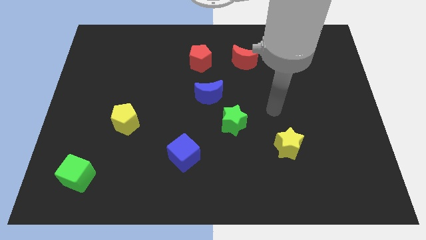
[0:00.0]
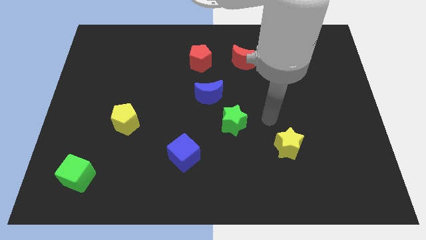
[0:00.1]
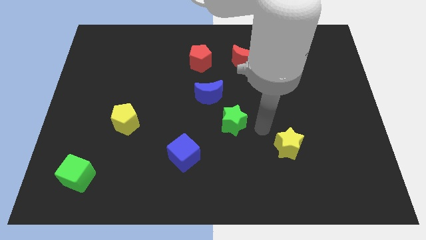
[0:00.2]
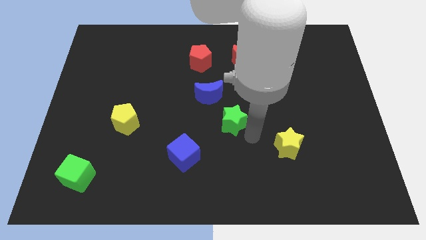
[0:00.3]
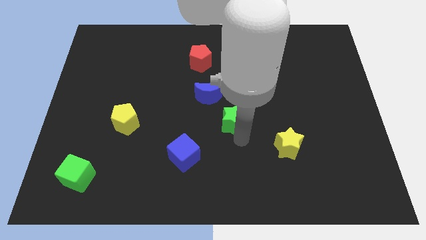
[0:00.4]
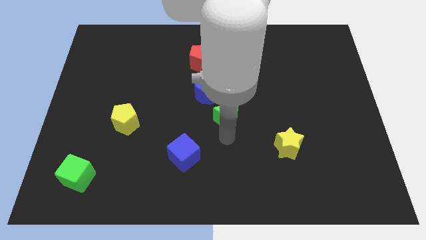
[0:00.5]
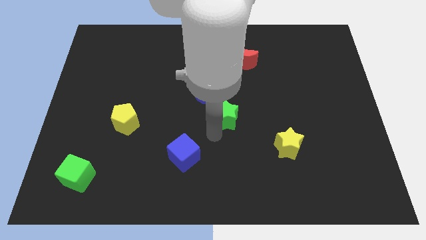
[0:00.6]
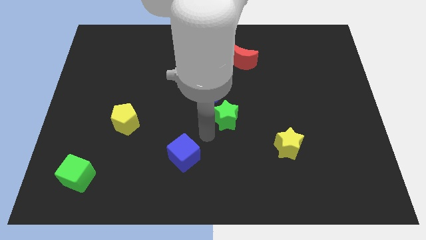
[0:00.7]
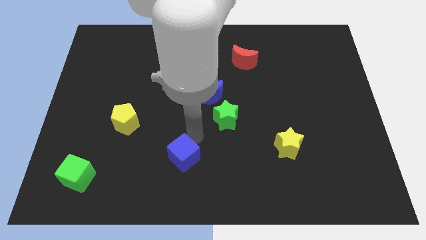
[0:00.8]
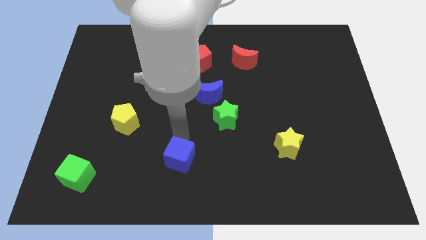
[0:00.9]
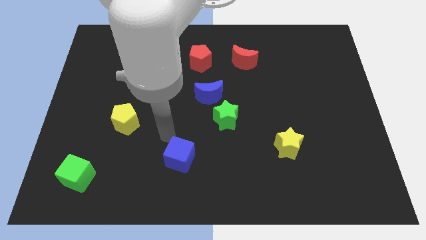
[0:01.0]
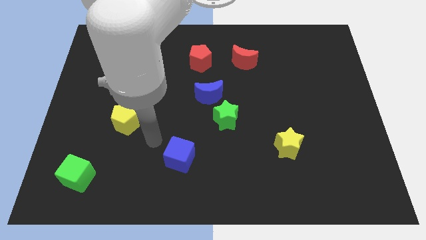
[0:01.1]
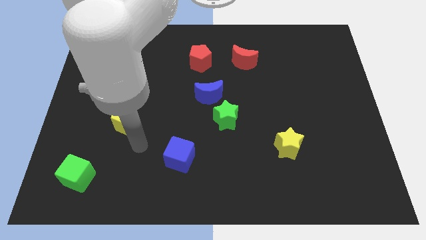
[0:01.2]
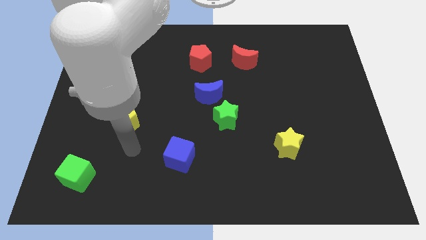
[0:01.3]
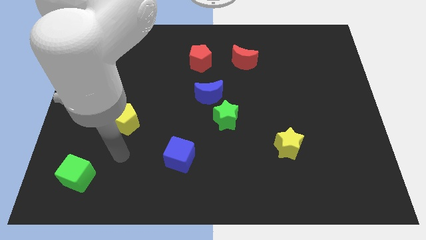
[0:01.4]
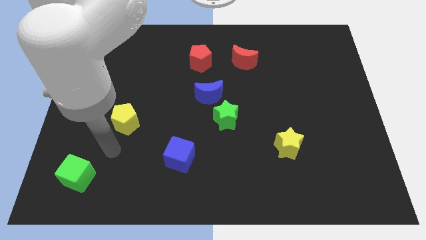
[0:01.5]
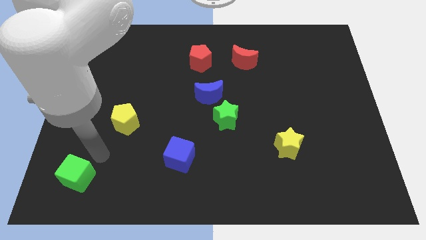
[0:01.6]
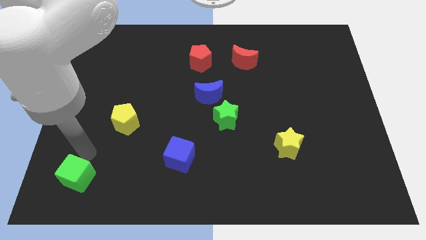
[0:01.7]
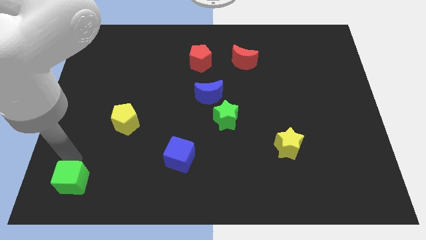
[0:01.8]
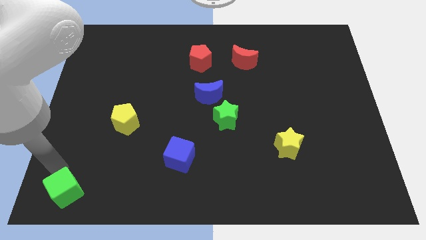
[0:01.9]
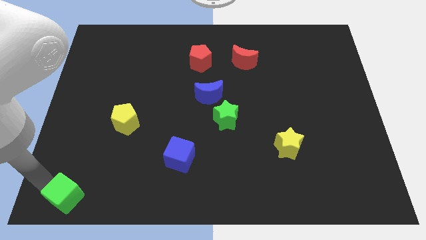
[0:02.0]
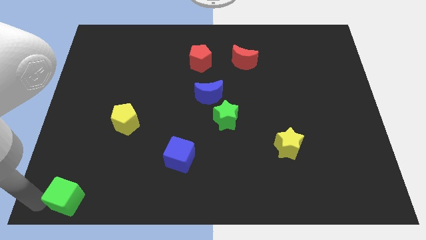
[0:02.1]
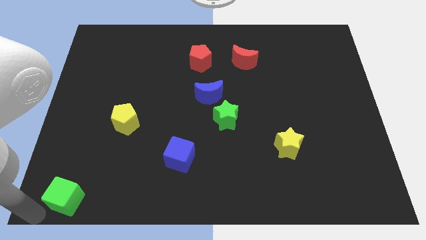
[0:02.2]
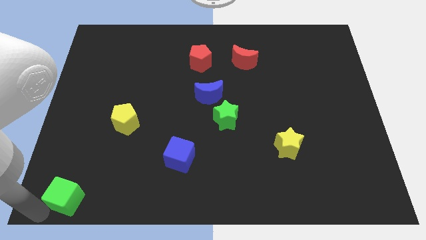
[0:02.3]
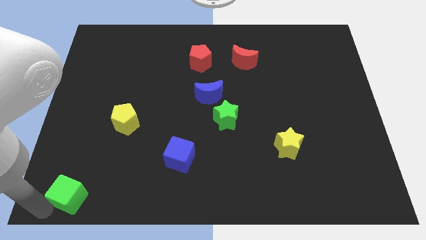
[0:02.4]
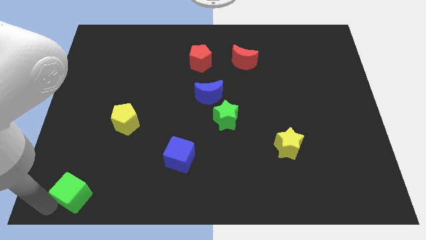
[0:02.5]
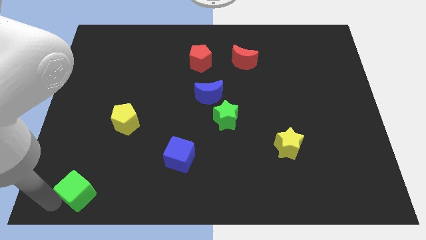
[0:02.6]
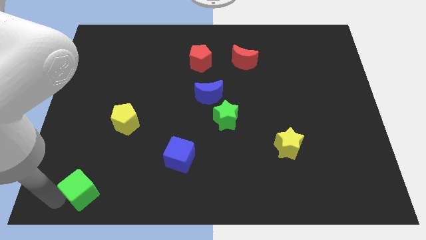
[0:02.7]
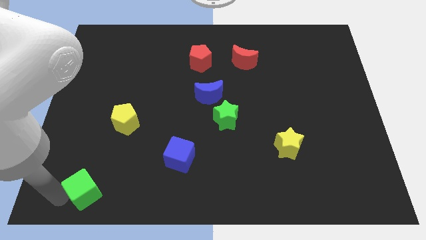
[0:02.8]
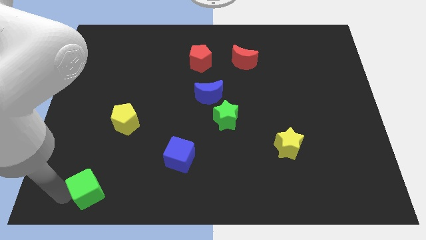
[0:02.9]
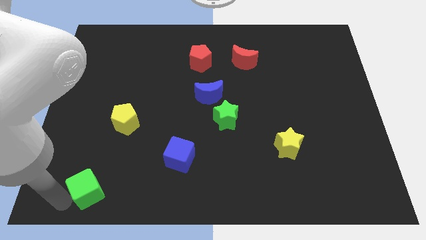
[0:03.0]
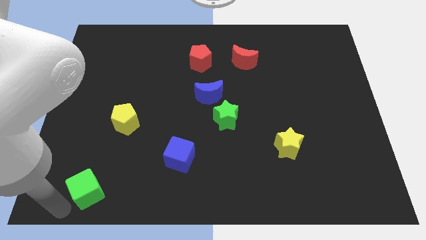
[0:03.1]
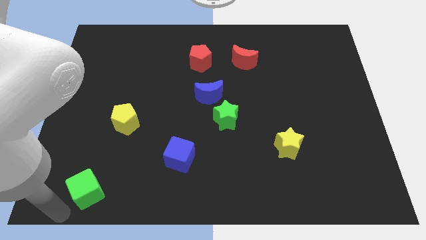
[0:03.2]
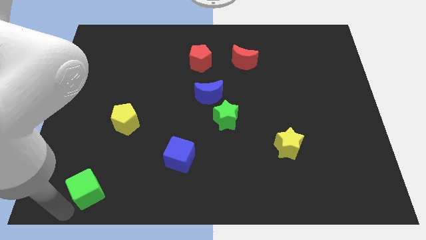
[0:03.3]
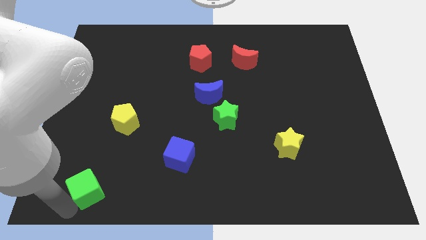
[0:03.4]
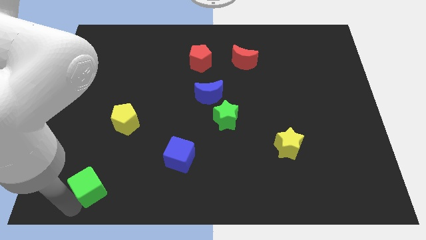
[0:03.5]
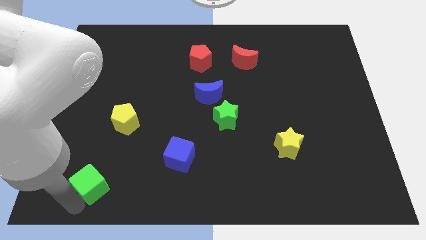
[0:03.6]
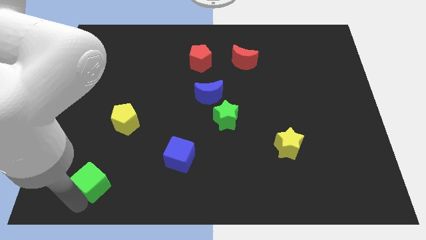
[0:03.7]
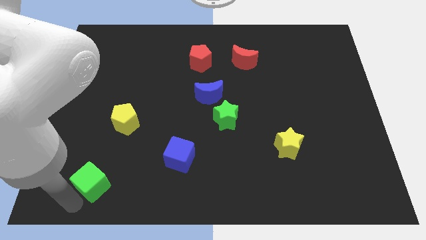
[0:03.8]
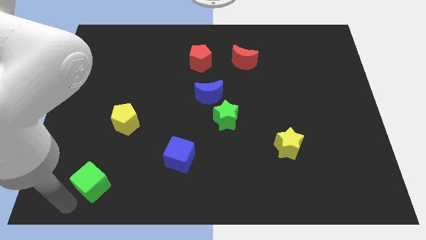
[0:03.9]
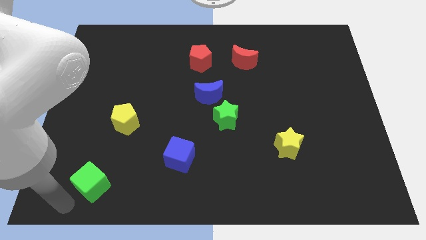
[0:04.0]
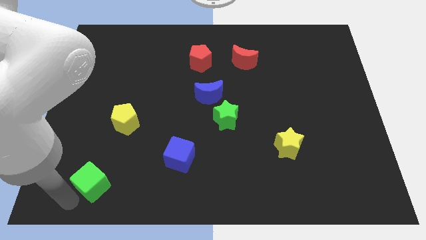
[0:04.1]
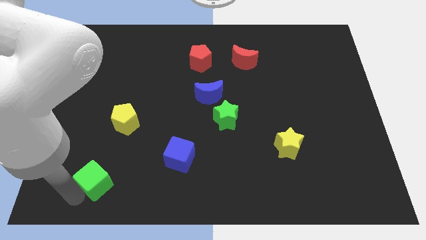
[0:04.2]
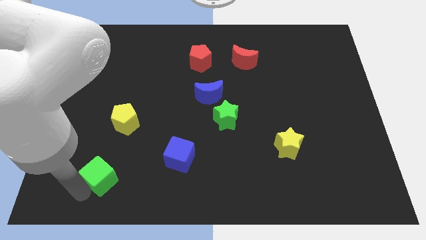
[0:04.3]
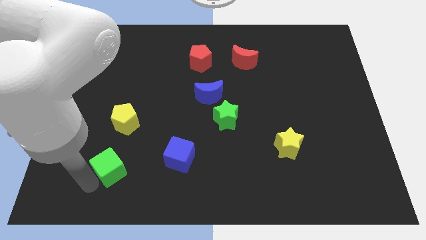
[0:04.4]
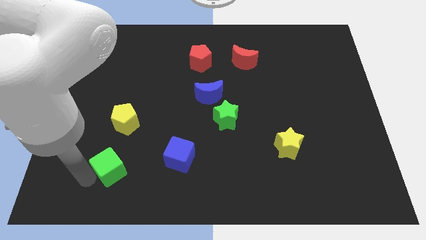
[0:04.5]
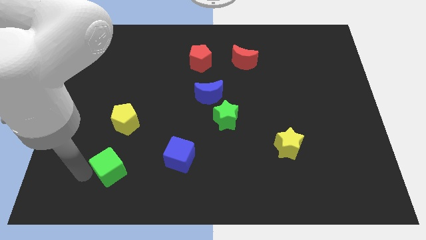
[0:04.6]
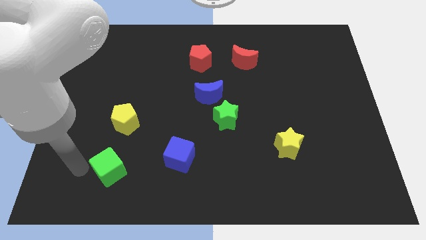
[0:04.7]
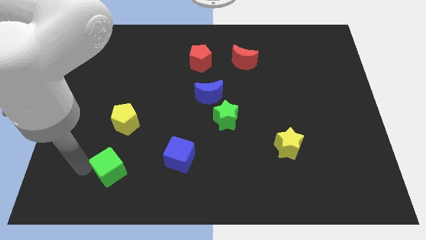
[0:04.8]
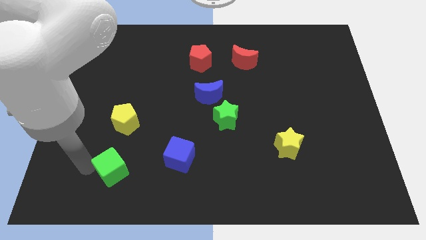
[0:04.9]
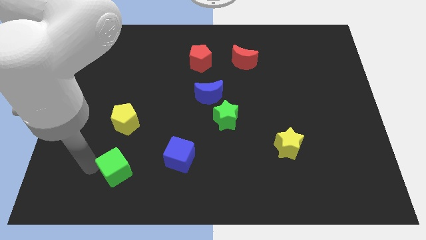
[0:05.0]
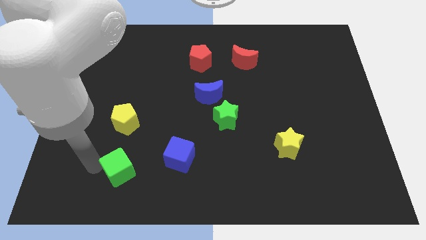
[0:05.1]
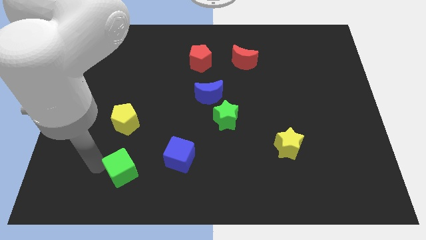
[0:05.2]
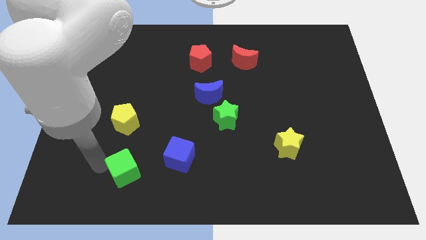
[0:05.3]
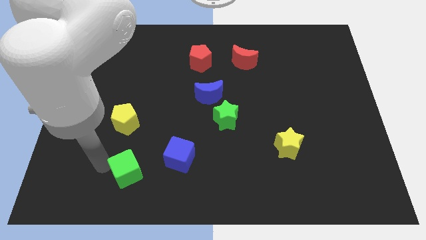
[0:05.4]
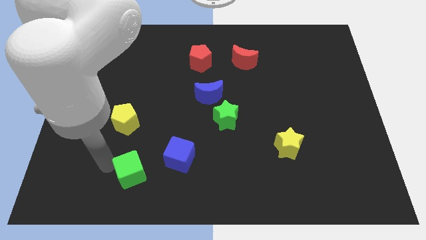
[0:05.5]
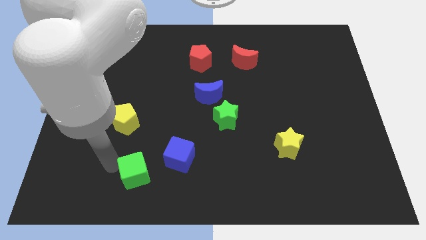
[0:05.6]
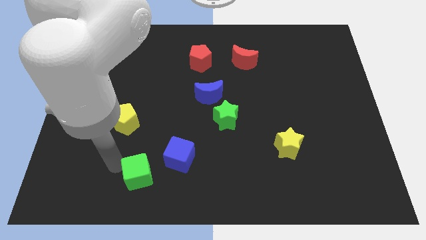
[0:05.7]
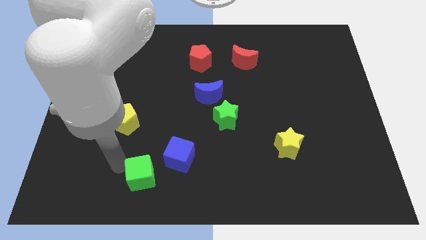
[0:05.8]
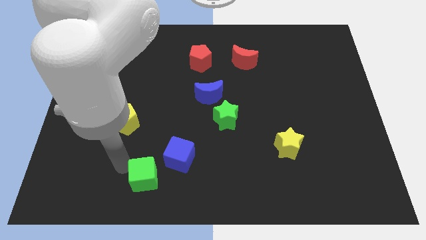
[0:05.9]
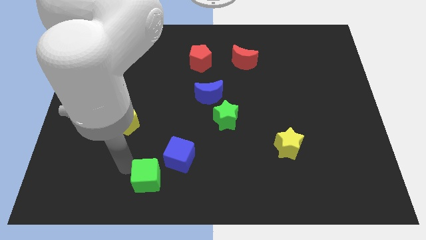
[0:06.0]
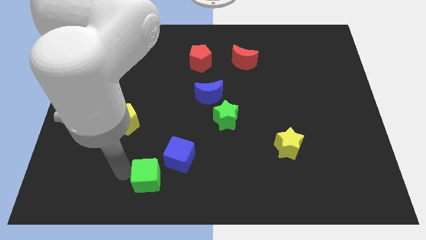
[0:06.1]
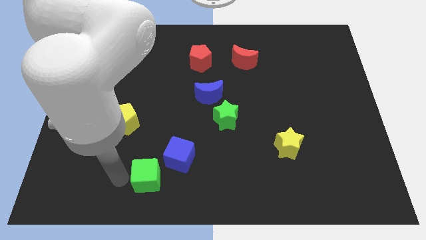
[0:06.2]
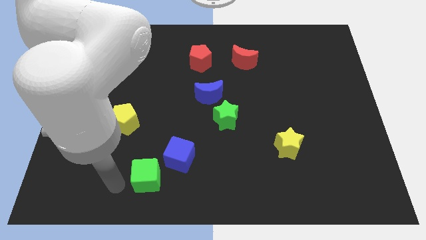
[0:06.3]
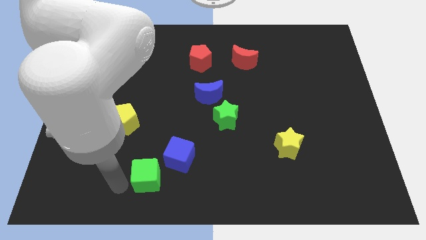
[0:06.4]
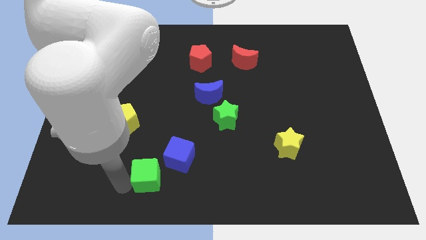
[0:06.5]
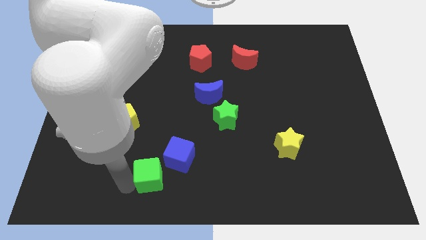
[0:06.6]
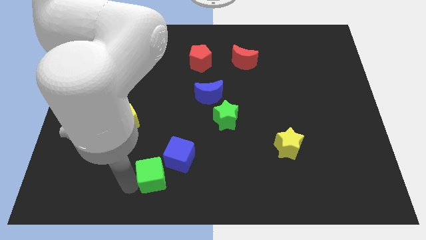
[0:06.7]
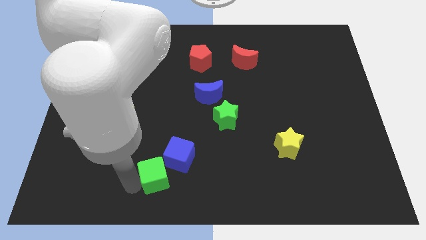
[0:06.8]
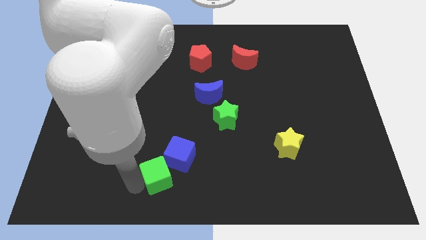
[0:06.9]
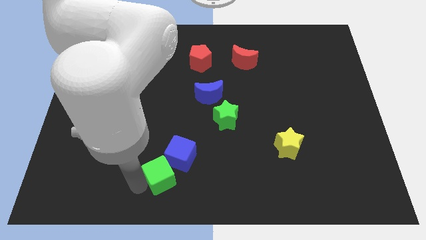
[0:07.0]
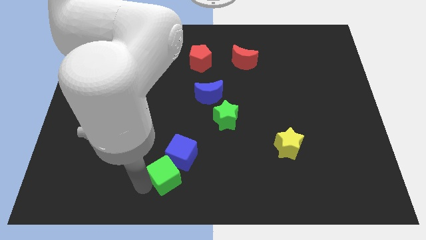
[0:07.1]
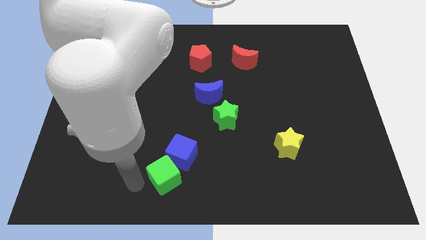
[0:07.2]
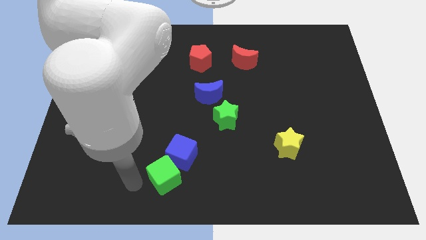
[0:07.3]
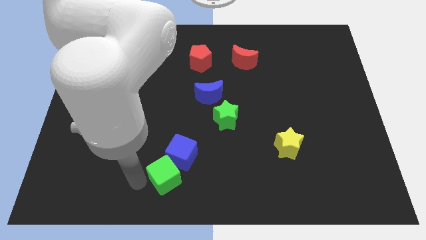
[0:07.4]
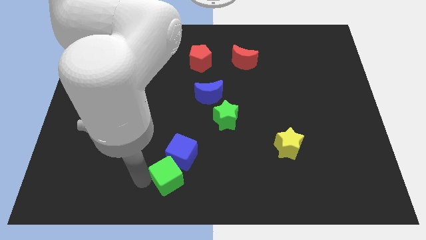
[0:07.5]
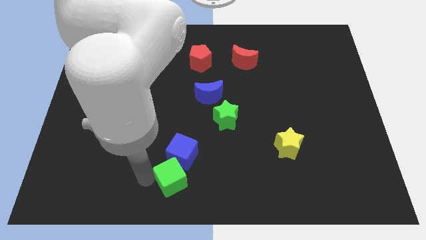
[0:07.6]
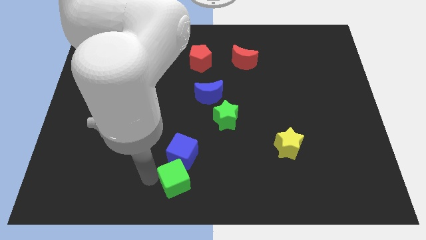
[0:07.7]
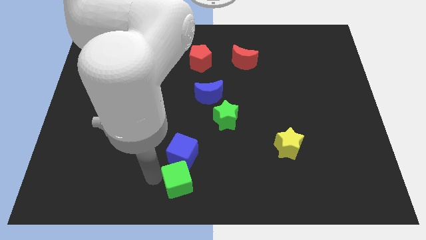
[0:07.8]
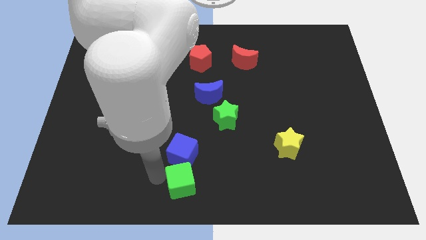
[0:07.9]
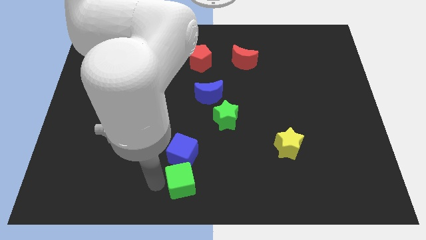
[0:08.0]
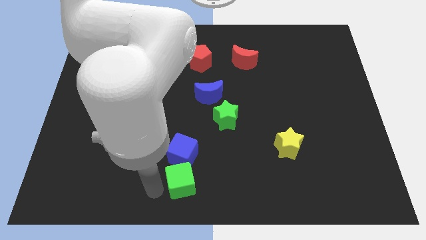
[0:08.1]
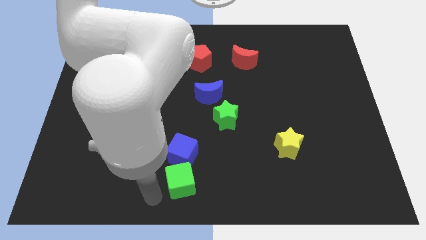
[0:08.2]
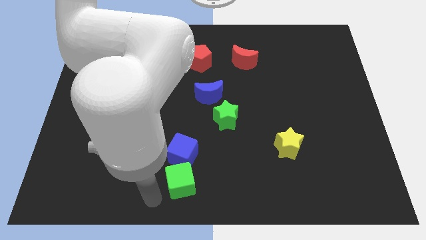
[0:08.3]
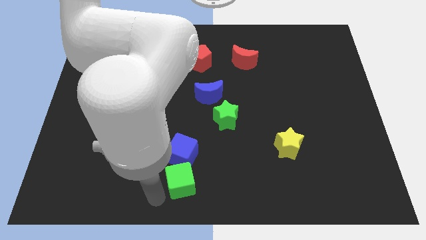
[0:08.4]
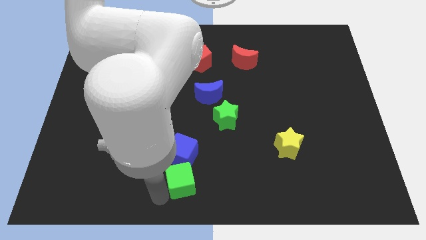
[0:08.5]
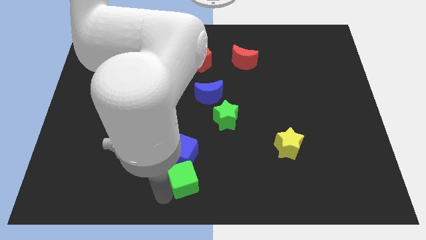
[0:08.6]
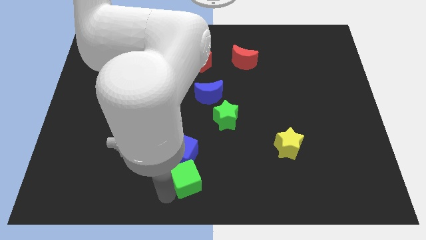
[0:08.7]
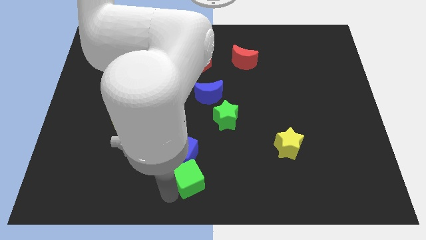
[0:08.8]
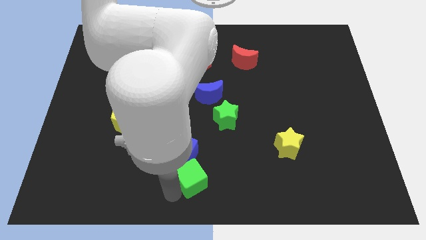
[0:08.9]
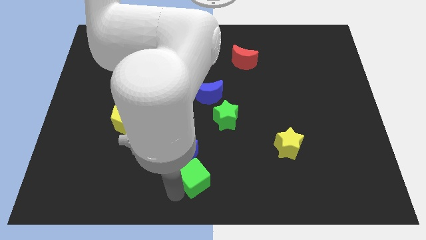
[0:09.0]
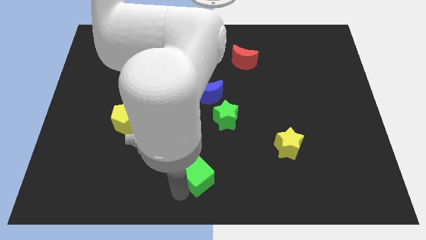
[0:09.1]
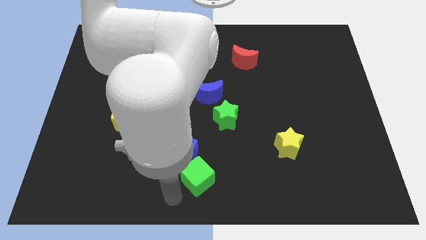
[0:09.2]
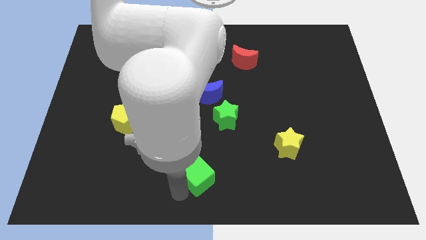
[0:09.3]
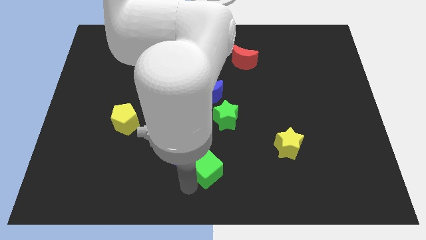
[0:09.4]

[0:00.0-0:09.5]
slide the green cube to the right side of the blue cube
